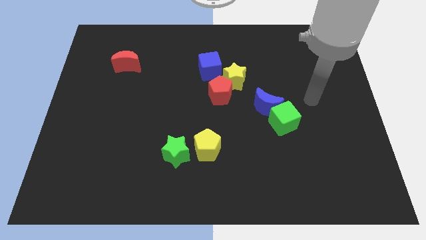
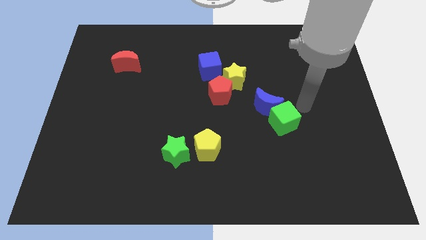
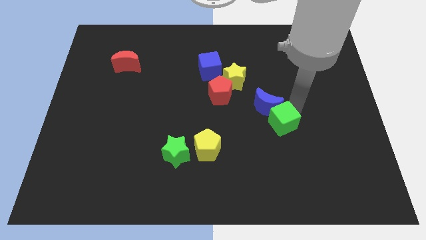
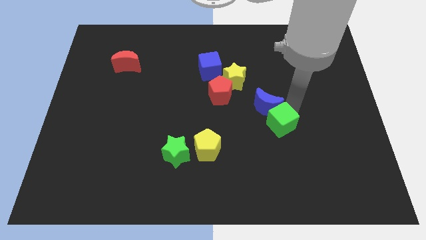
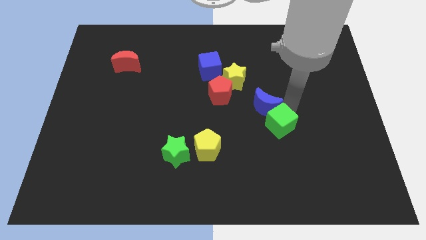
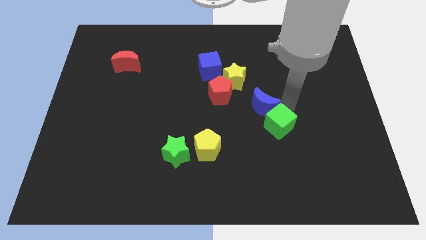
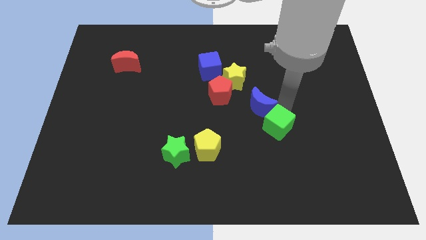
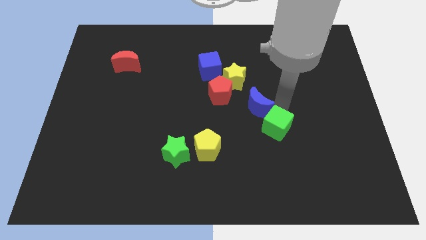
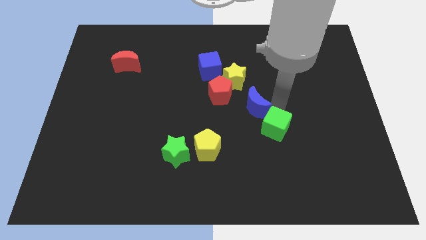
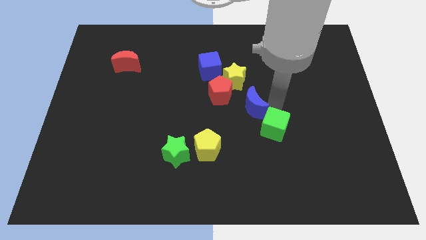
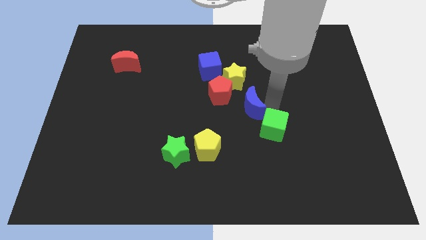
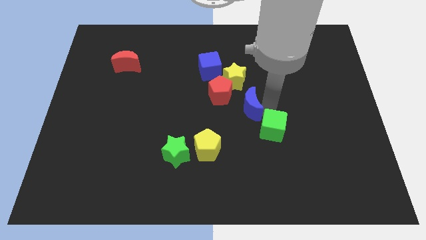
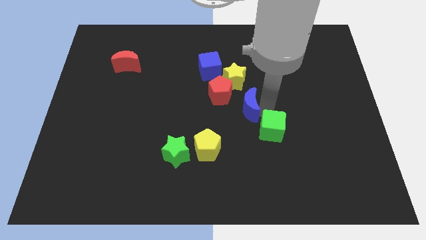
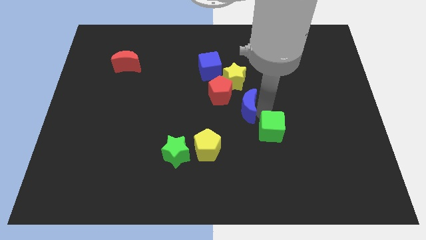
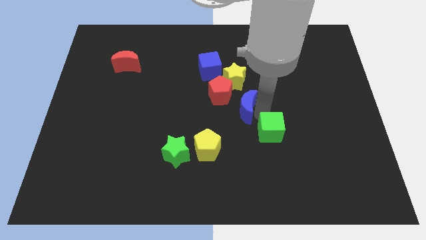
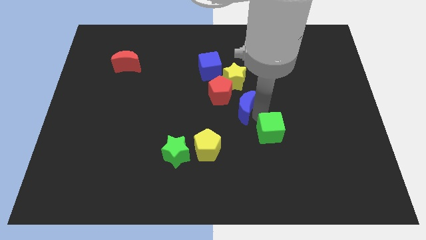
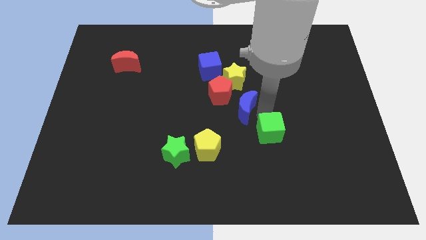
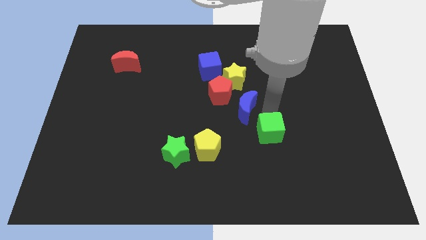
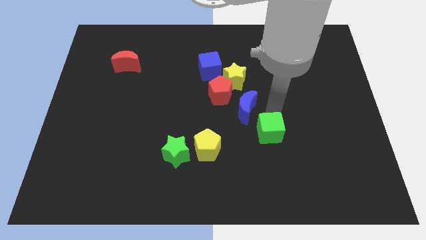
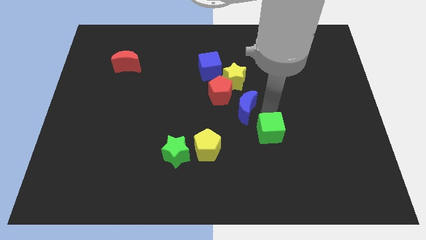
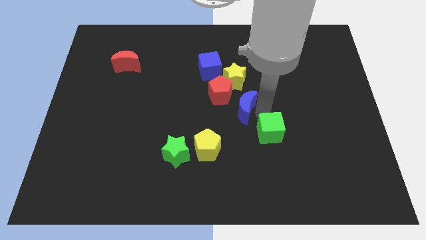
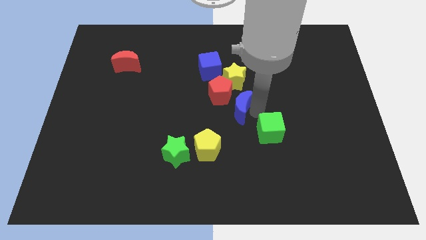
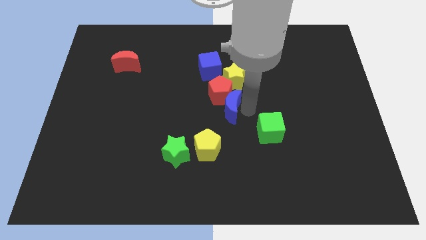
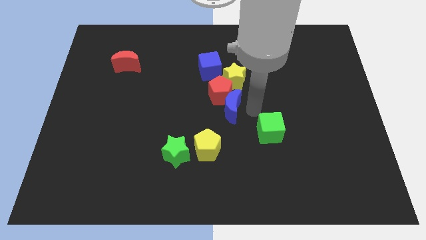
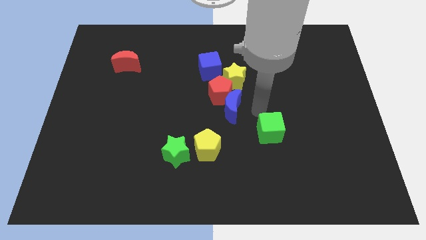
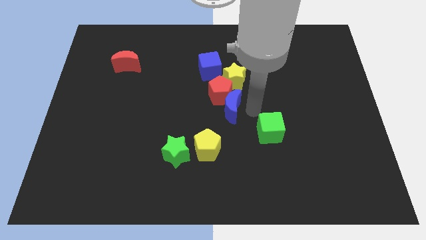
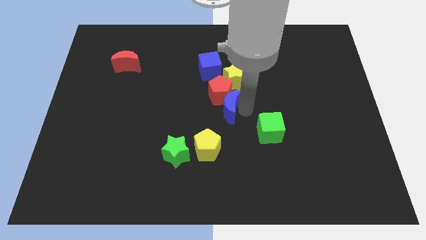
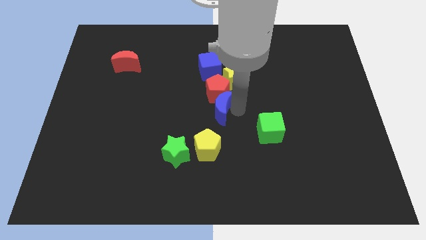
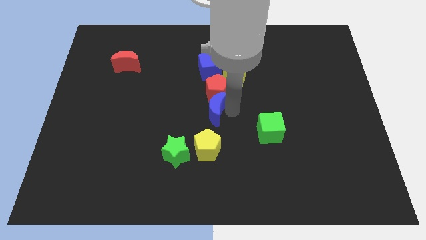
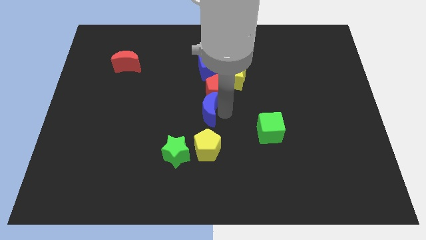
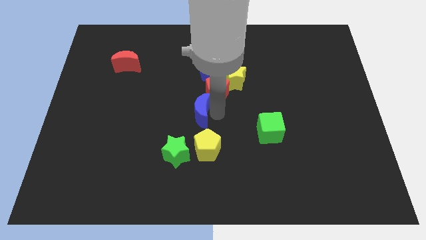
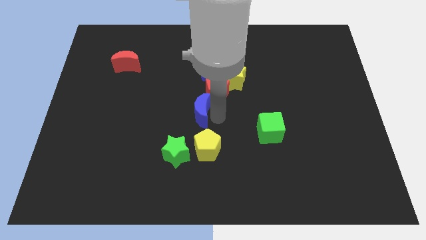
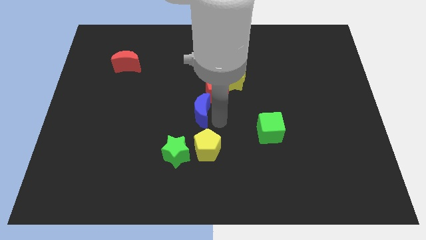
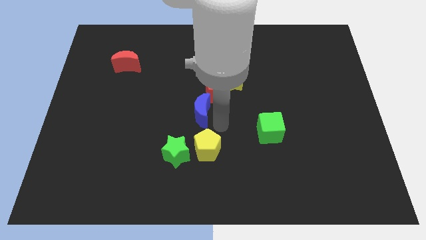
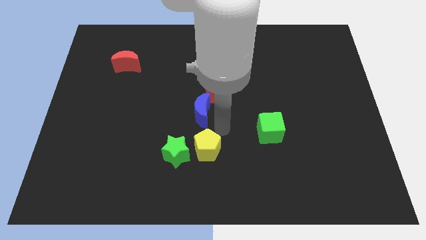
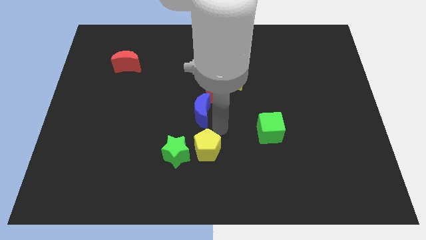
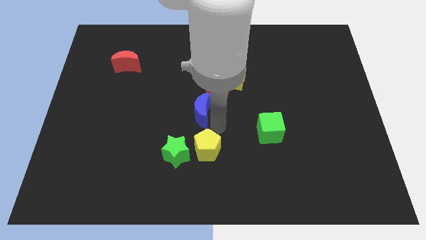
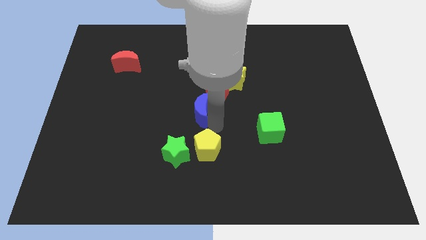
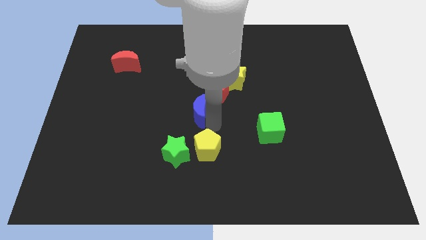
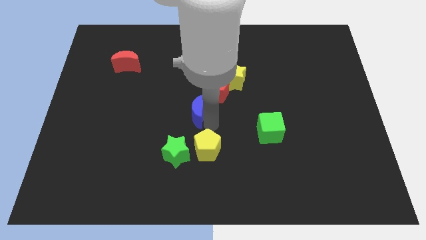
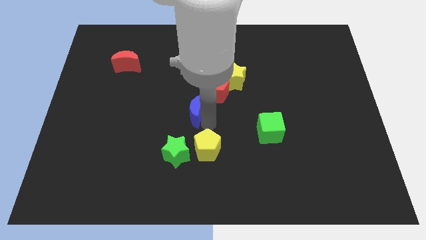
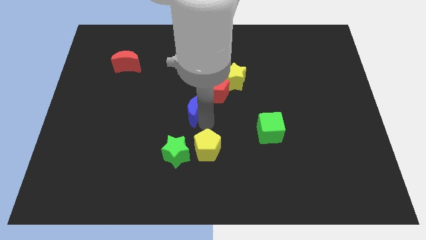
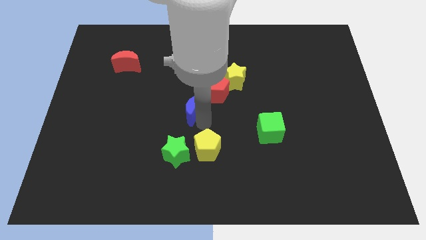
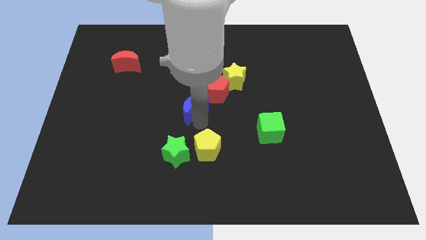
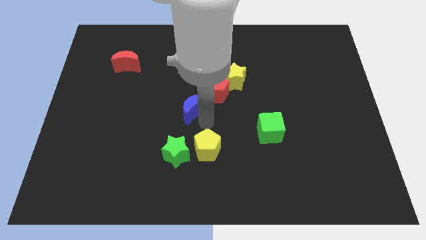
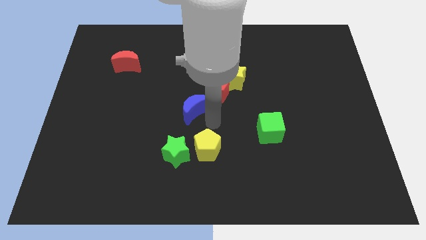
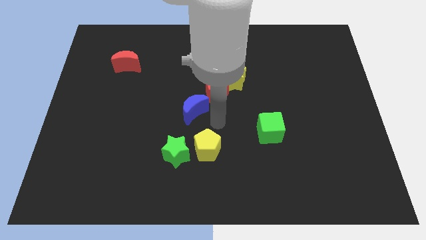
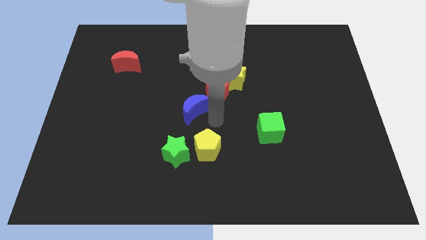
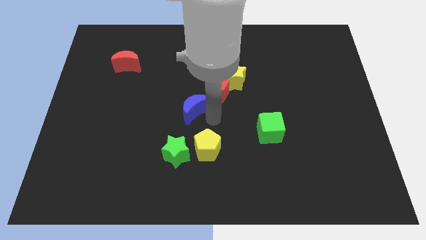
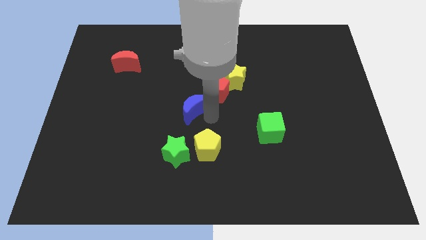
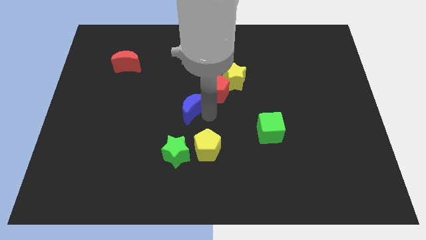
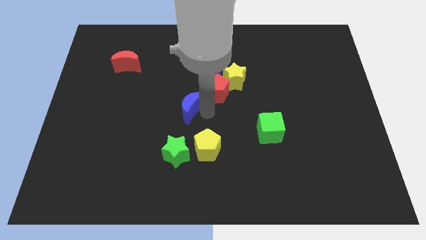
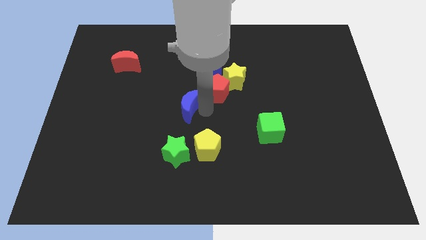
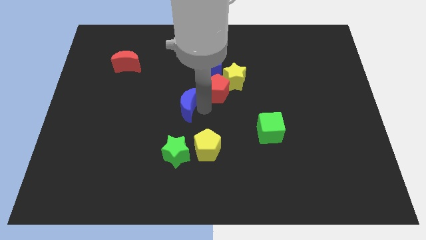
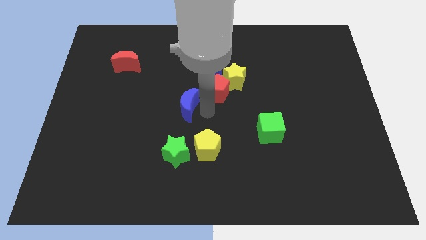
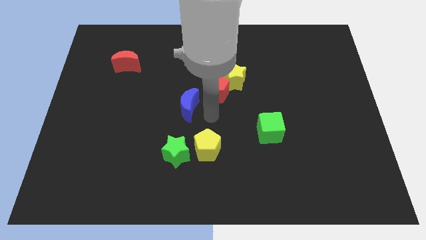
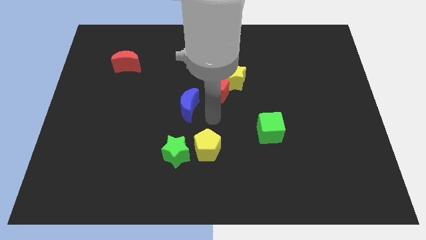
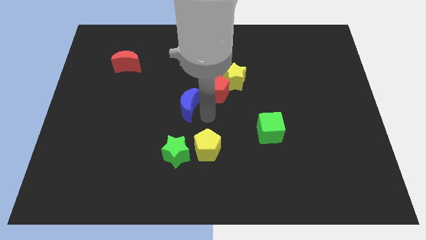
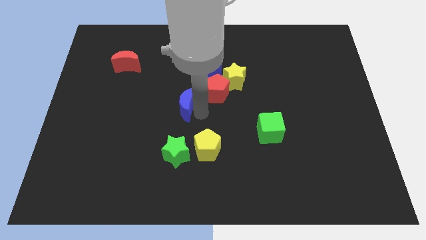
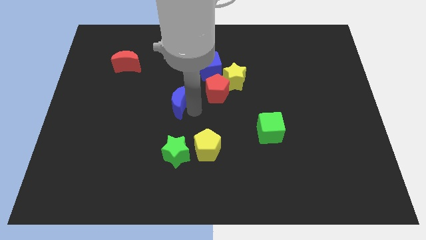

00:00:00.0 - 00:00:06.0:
push the blue moon left

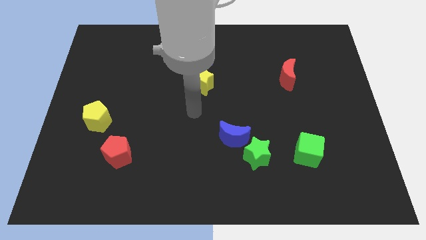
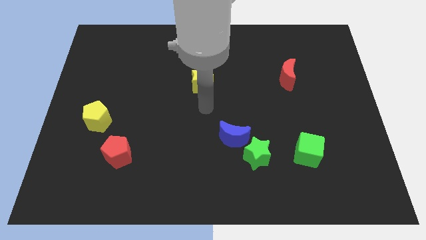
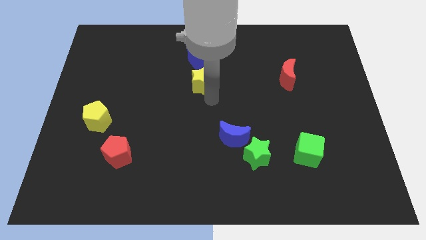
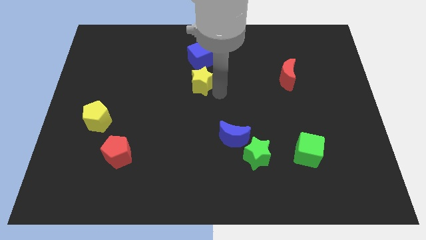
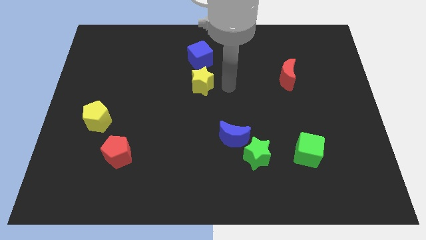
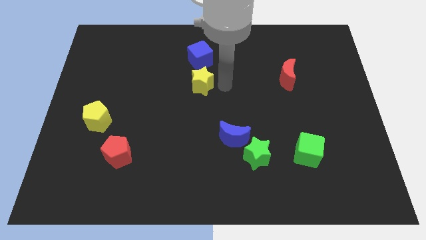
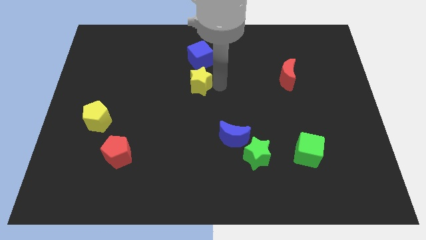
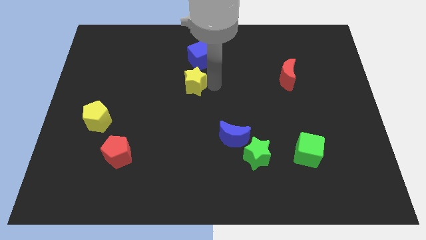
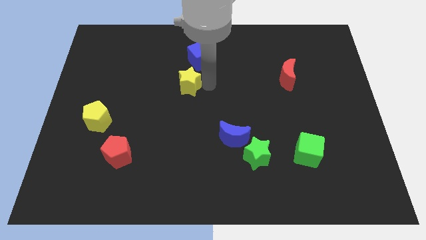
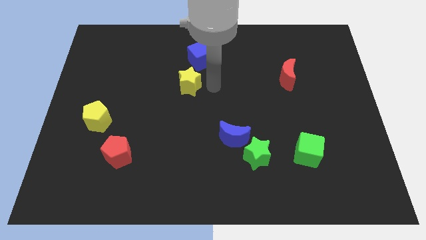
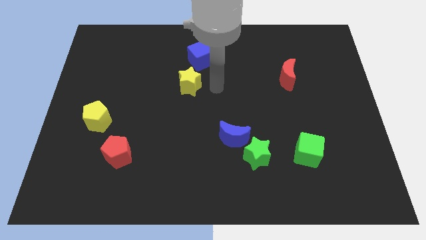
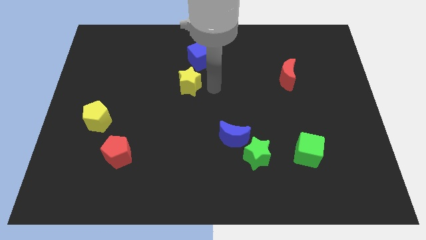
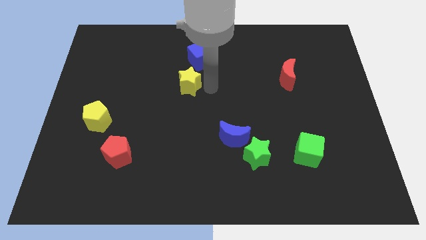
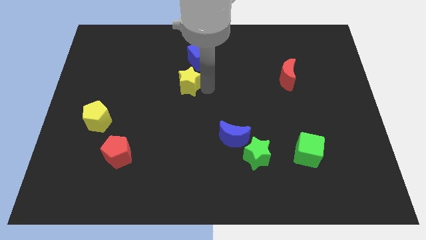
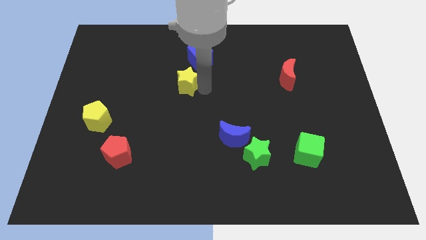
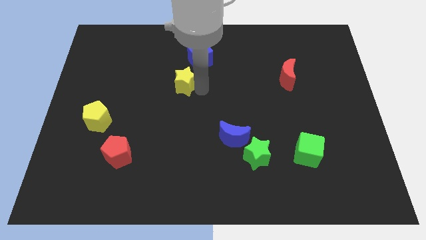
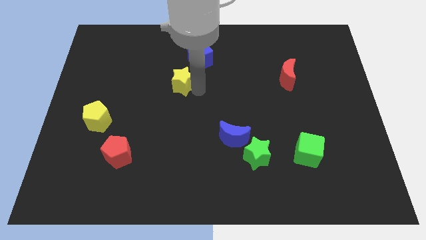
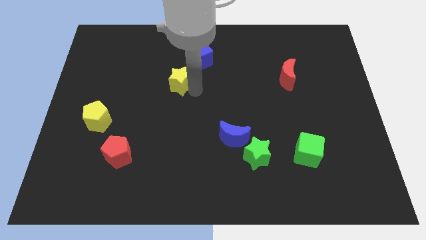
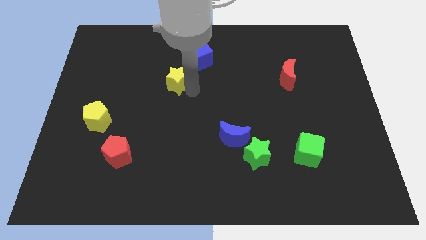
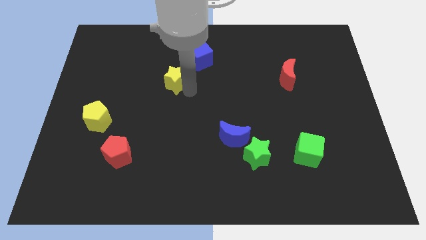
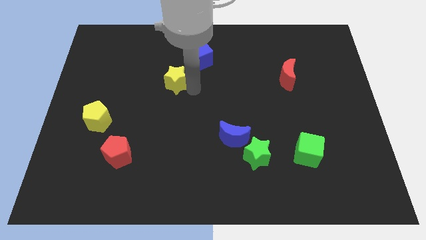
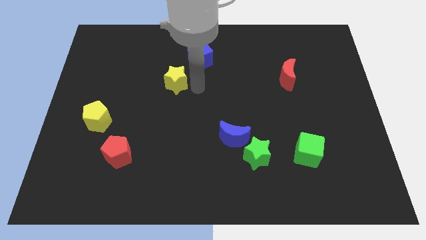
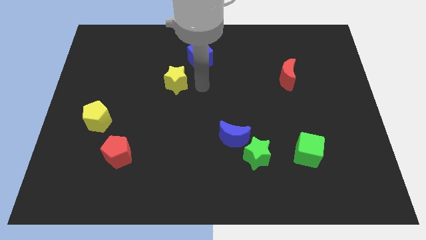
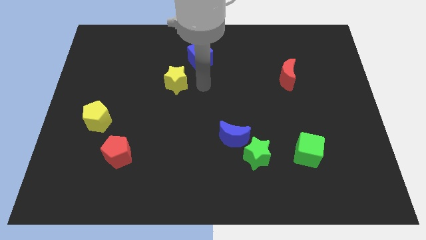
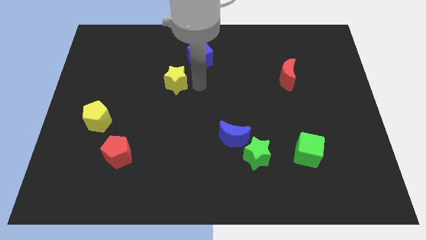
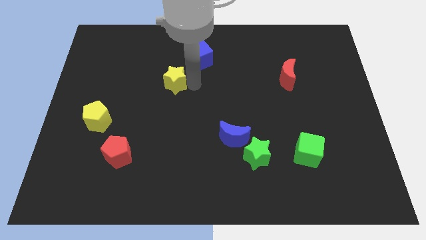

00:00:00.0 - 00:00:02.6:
push the yellow star left slightly
